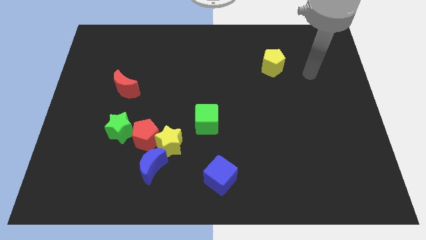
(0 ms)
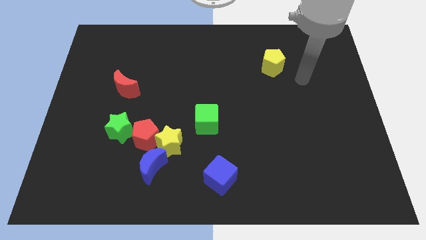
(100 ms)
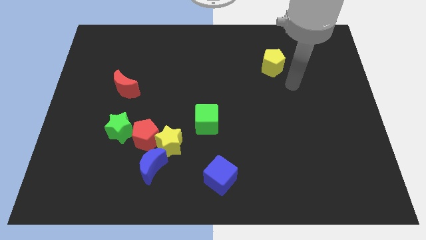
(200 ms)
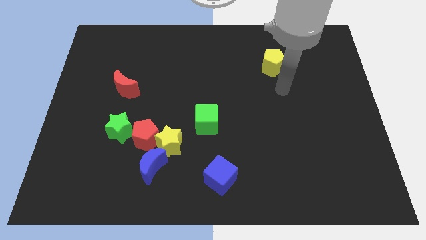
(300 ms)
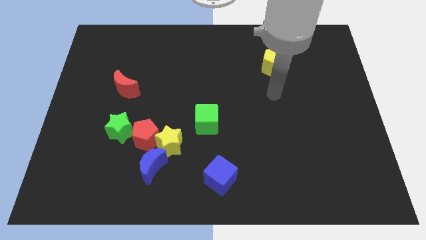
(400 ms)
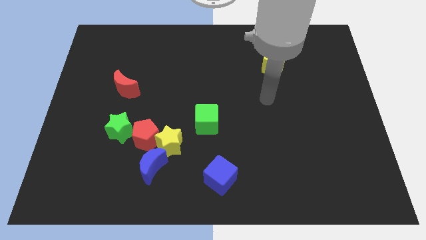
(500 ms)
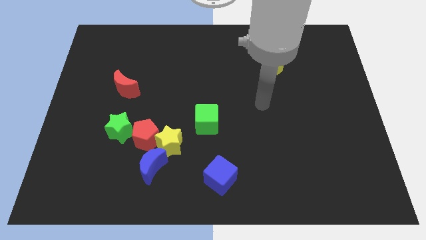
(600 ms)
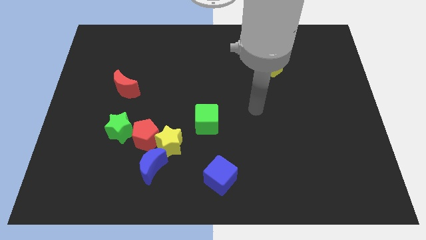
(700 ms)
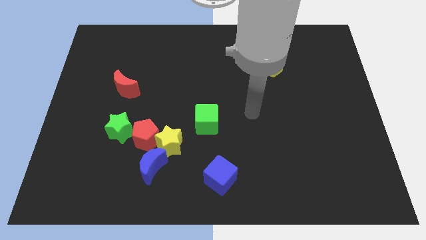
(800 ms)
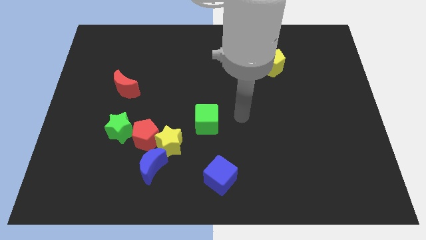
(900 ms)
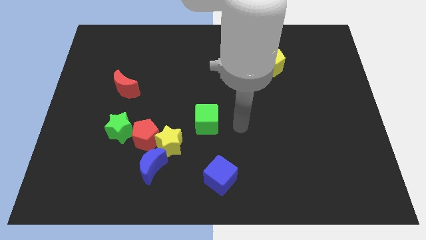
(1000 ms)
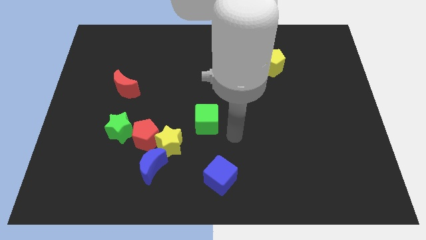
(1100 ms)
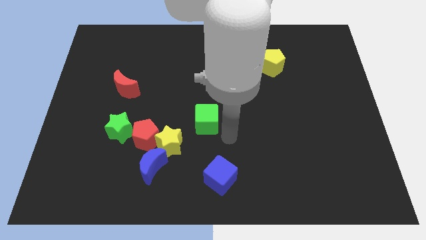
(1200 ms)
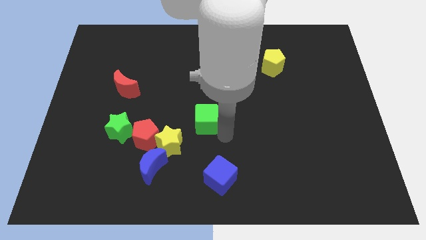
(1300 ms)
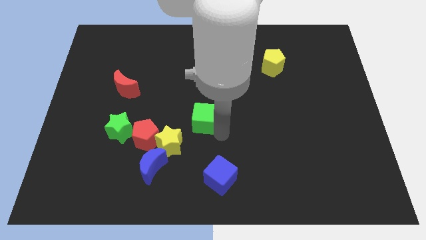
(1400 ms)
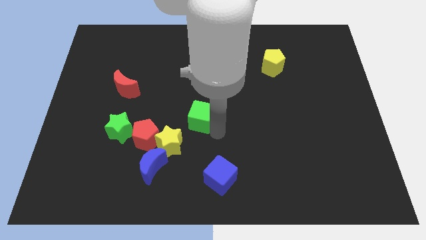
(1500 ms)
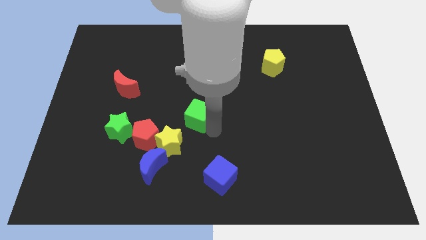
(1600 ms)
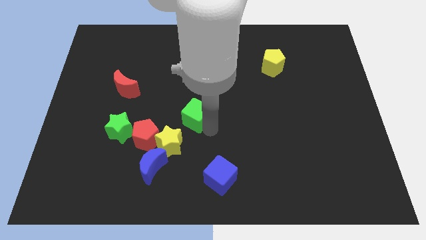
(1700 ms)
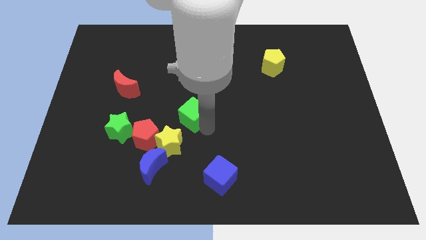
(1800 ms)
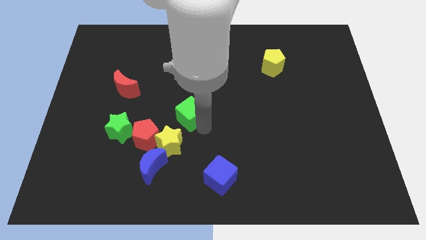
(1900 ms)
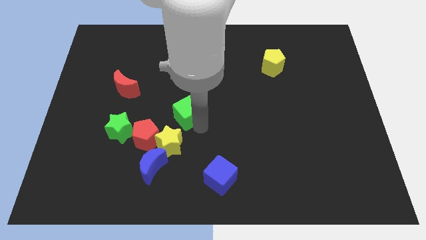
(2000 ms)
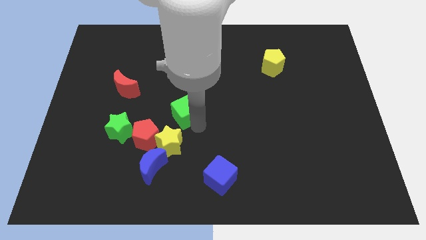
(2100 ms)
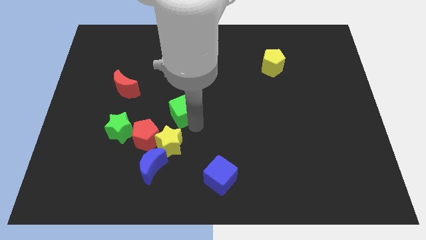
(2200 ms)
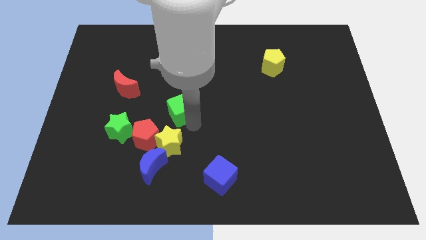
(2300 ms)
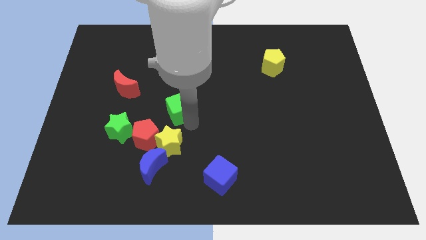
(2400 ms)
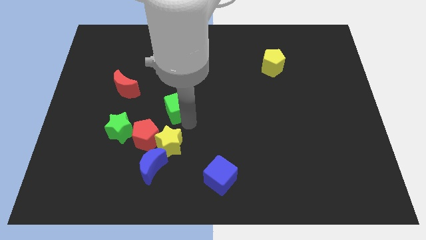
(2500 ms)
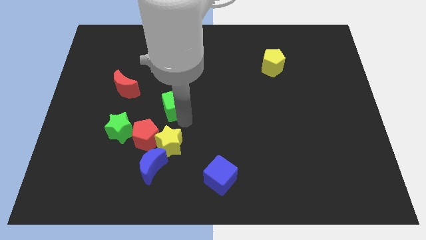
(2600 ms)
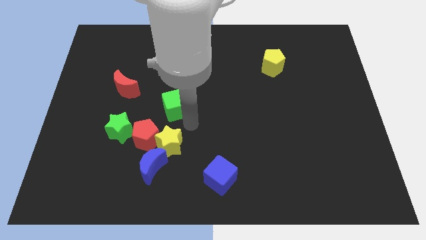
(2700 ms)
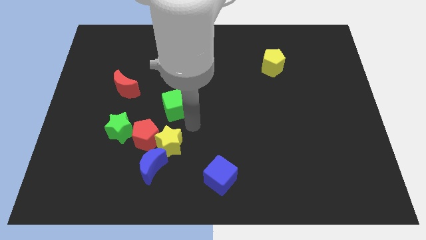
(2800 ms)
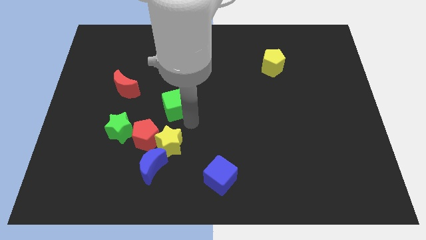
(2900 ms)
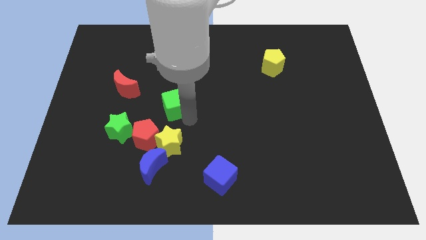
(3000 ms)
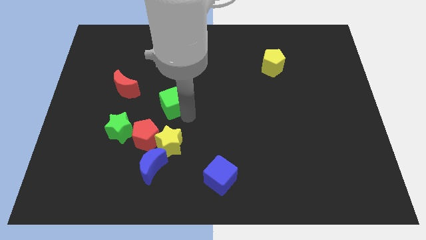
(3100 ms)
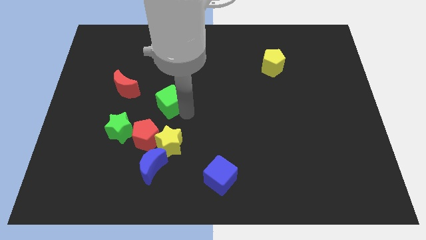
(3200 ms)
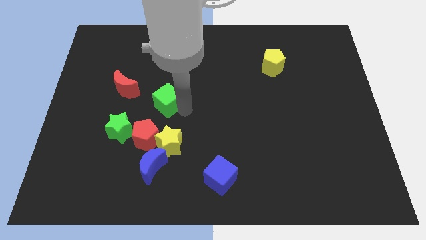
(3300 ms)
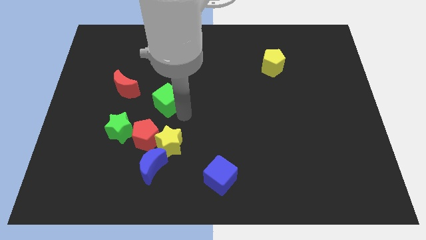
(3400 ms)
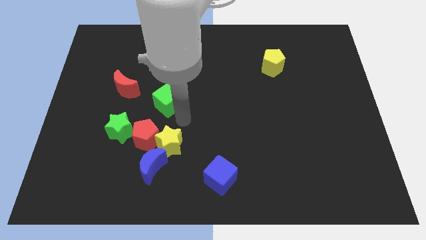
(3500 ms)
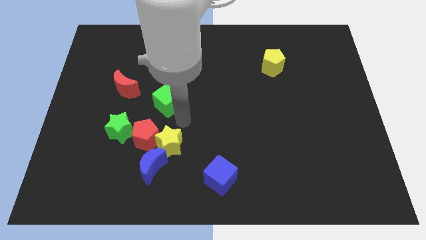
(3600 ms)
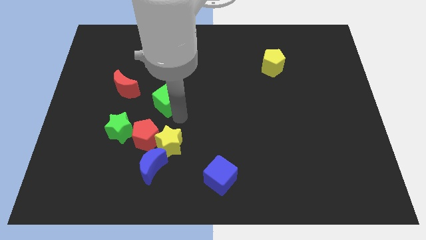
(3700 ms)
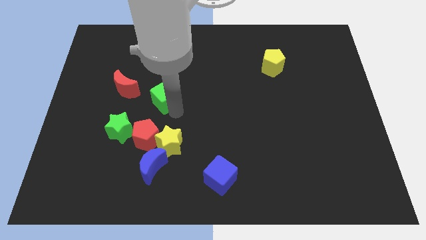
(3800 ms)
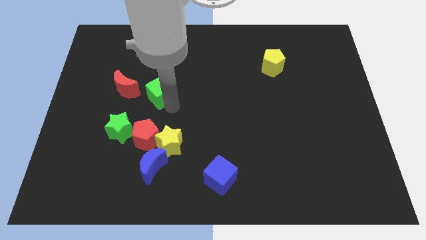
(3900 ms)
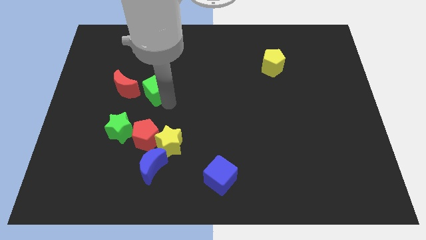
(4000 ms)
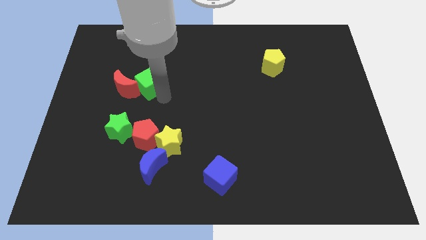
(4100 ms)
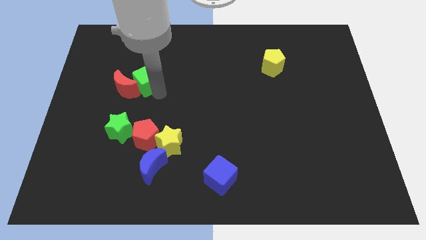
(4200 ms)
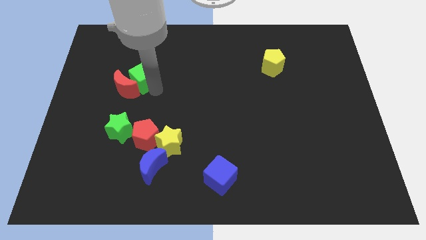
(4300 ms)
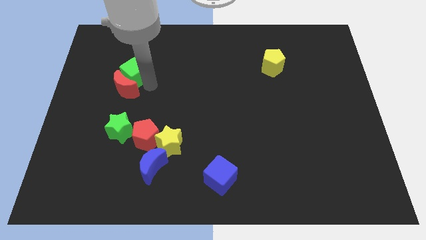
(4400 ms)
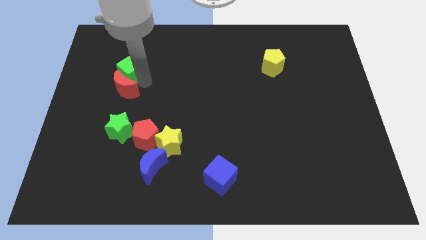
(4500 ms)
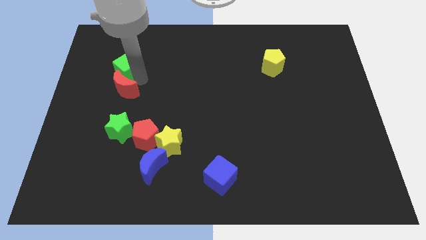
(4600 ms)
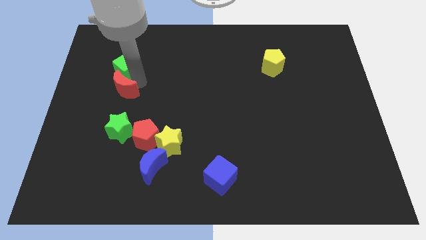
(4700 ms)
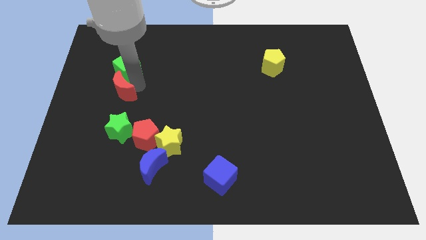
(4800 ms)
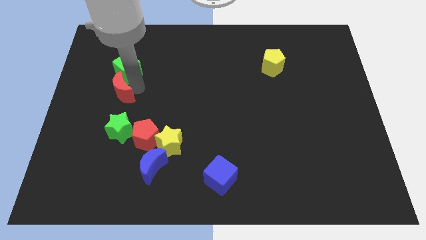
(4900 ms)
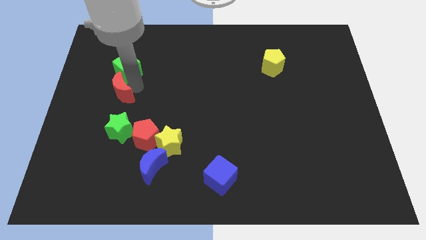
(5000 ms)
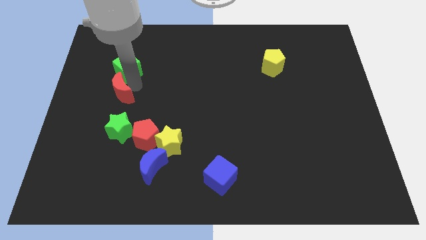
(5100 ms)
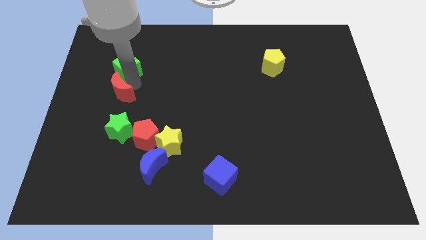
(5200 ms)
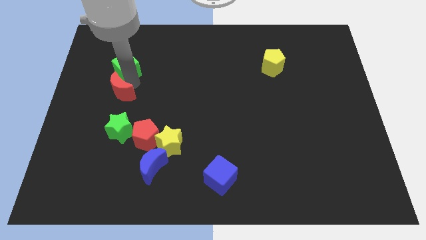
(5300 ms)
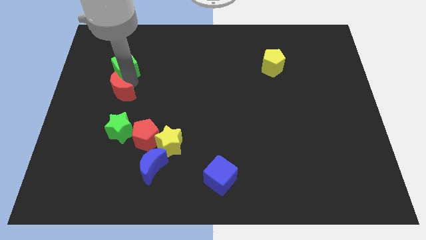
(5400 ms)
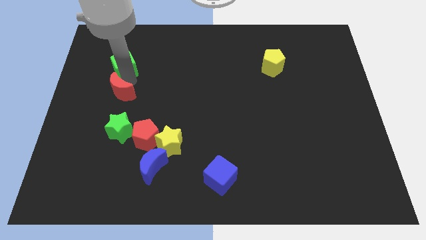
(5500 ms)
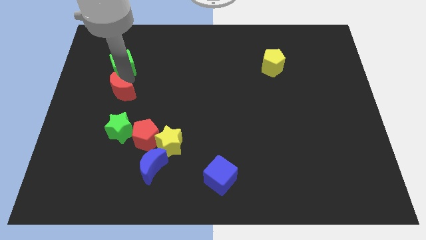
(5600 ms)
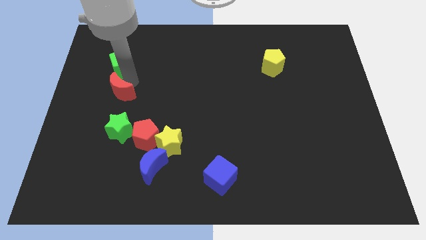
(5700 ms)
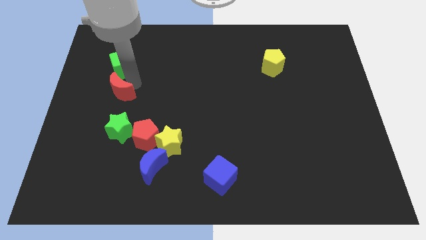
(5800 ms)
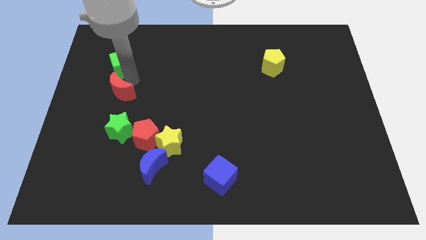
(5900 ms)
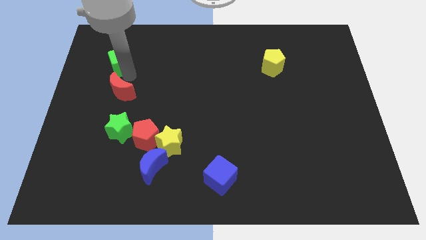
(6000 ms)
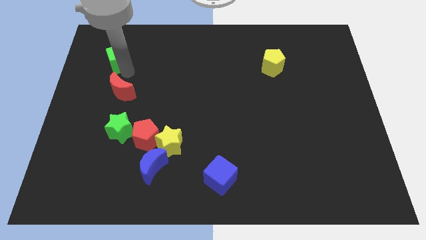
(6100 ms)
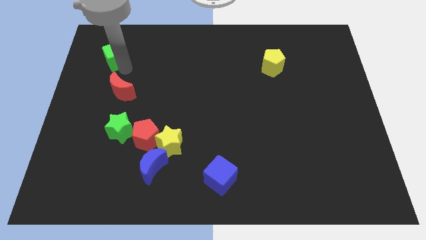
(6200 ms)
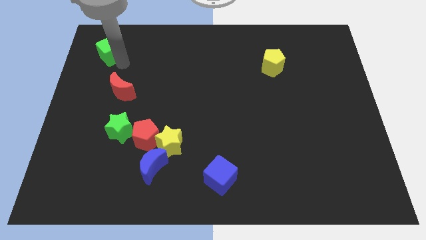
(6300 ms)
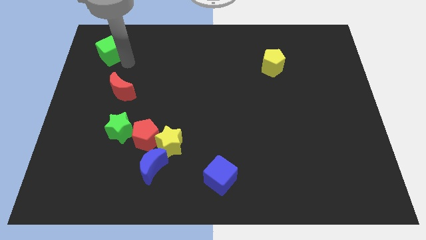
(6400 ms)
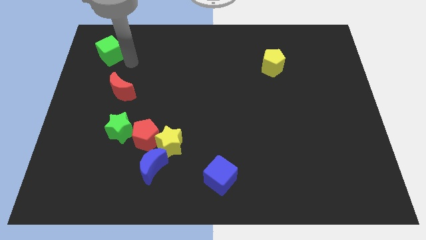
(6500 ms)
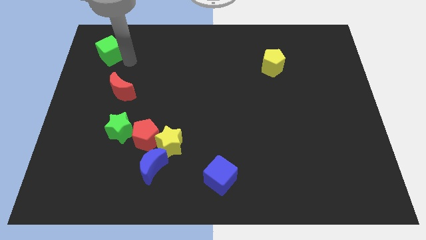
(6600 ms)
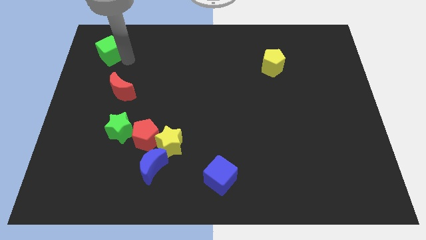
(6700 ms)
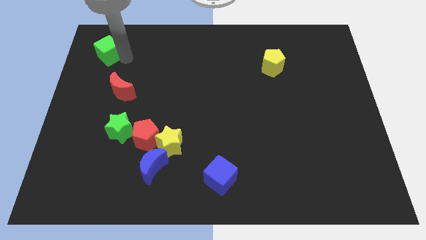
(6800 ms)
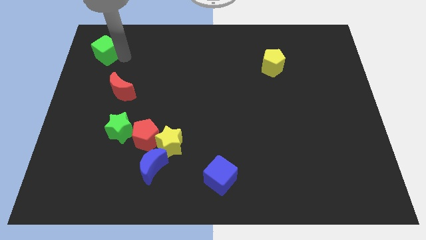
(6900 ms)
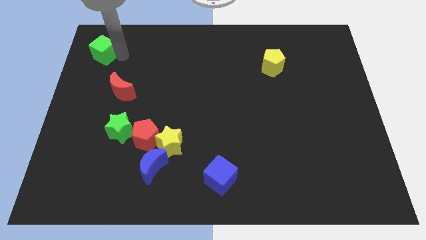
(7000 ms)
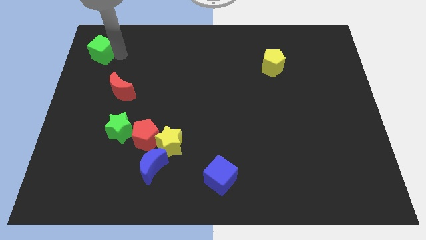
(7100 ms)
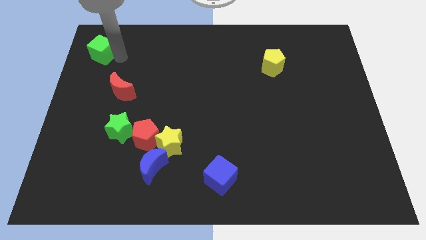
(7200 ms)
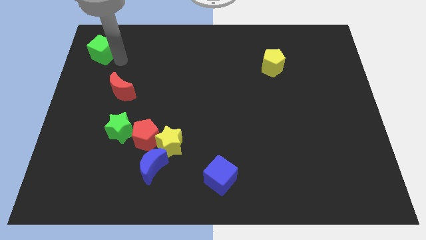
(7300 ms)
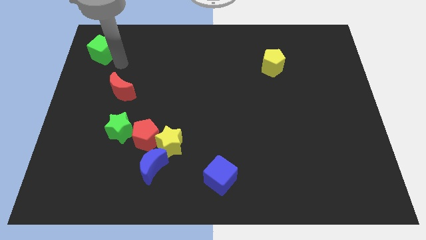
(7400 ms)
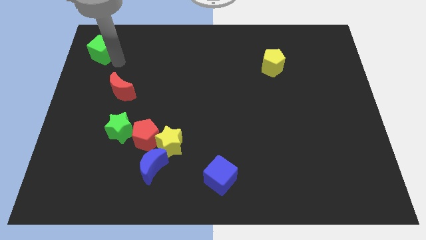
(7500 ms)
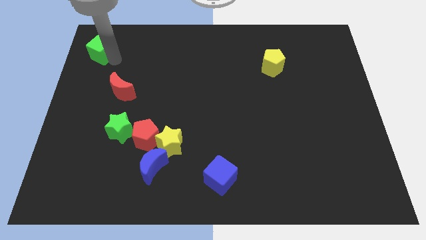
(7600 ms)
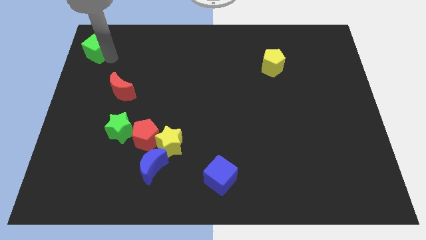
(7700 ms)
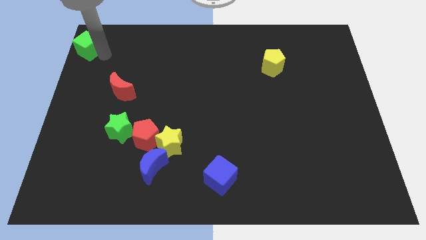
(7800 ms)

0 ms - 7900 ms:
move the green cube to the top left of the board
